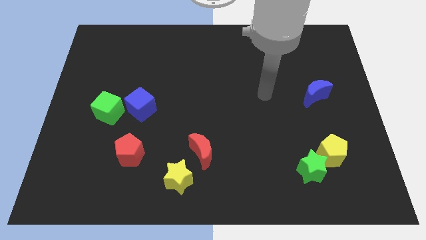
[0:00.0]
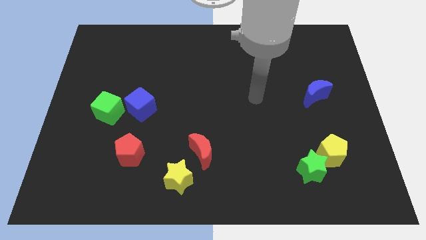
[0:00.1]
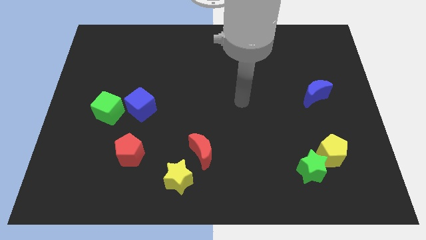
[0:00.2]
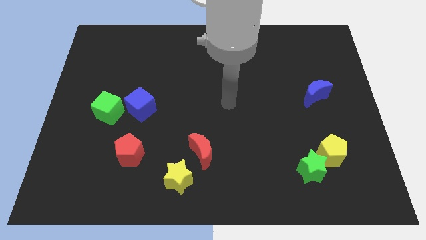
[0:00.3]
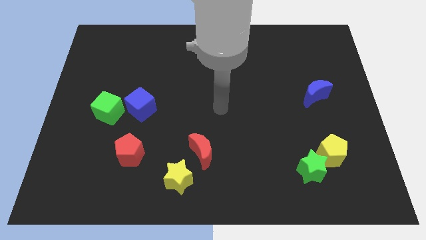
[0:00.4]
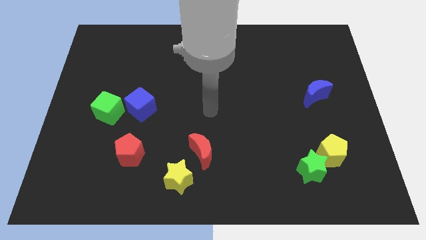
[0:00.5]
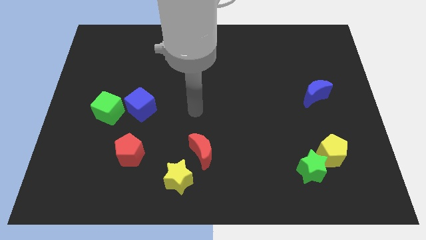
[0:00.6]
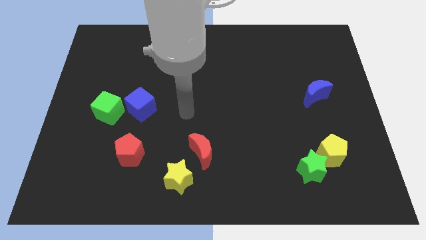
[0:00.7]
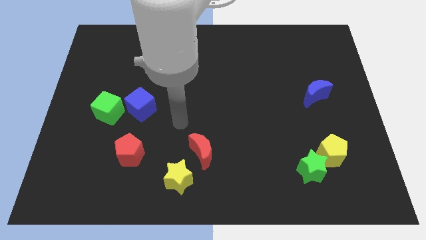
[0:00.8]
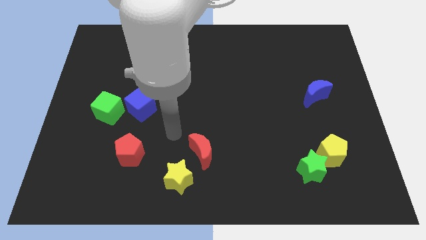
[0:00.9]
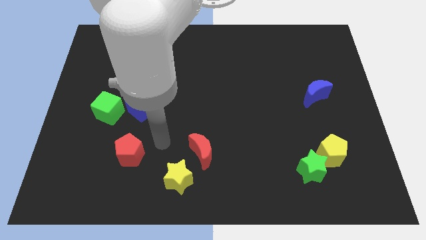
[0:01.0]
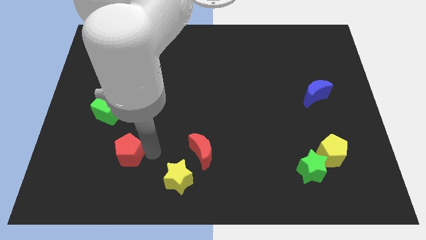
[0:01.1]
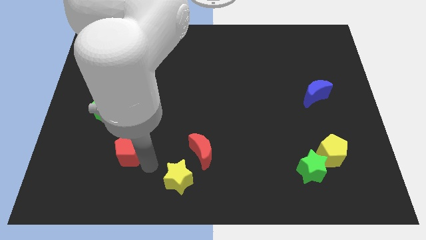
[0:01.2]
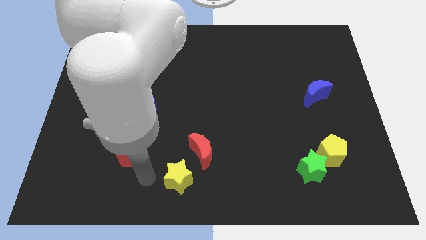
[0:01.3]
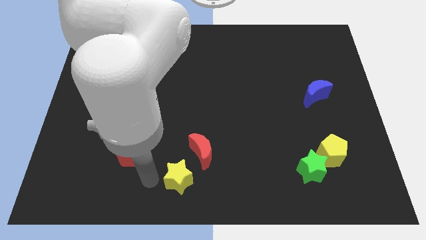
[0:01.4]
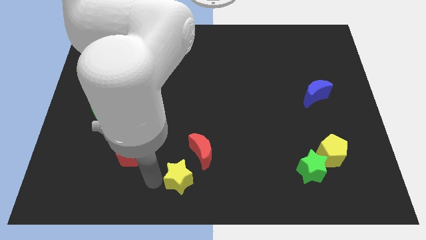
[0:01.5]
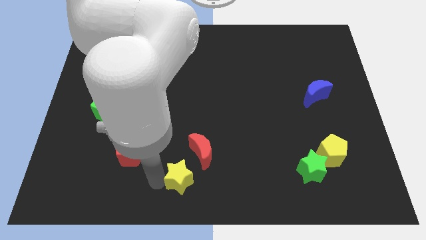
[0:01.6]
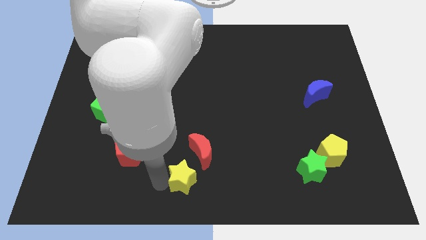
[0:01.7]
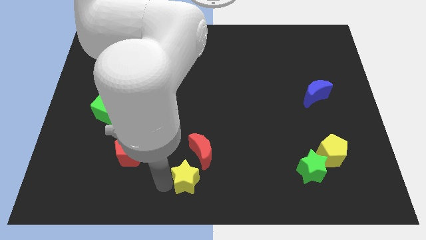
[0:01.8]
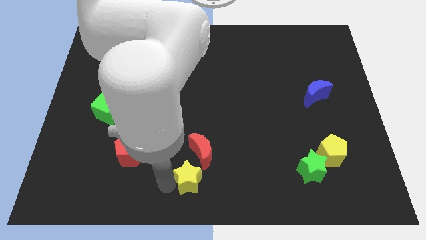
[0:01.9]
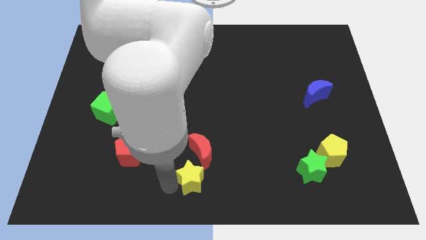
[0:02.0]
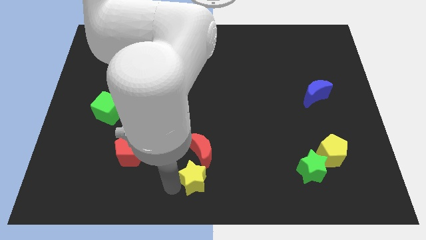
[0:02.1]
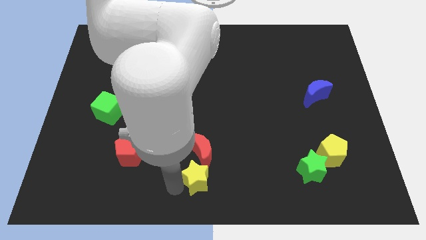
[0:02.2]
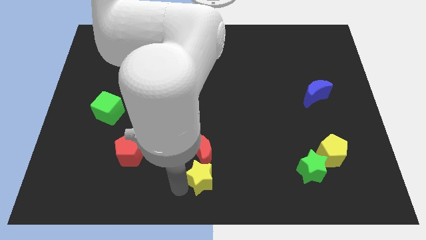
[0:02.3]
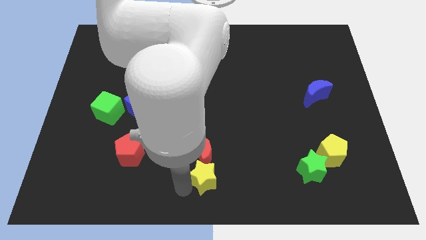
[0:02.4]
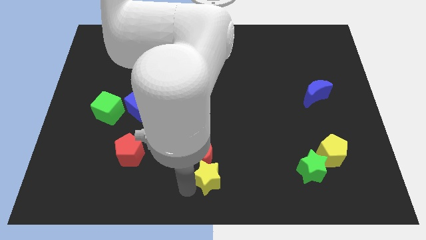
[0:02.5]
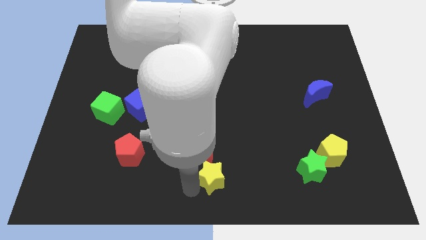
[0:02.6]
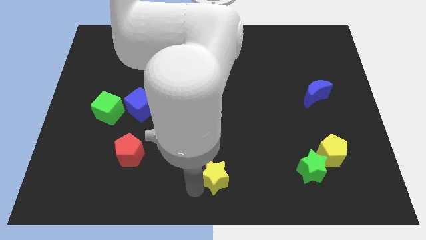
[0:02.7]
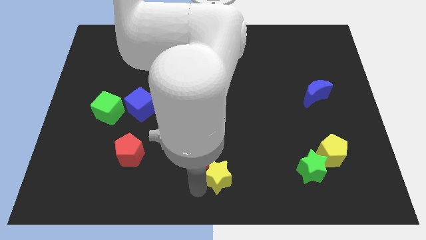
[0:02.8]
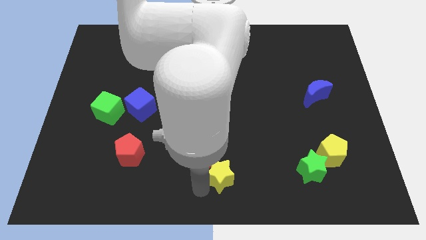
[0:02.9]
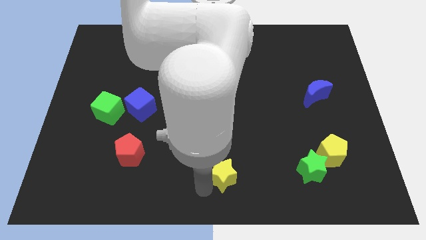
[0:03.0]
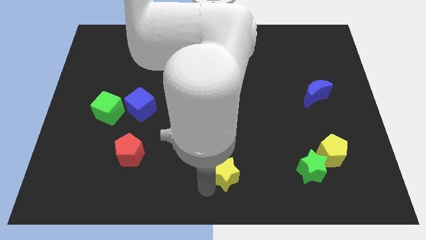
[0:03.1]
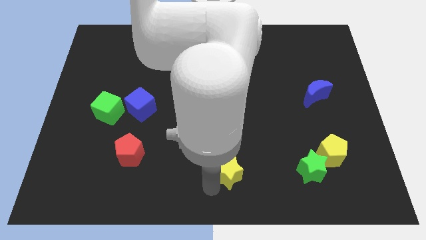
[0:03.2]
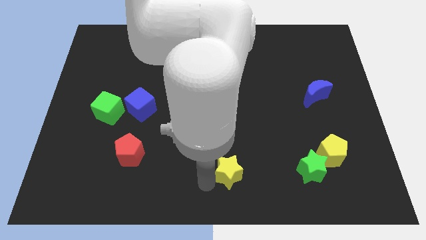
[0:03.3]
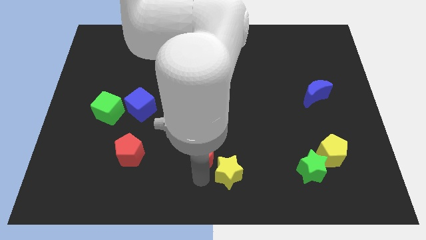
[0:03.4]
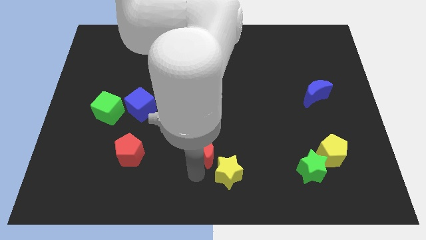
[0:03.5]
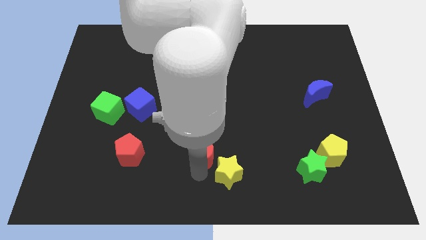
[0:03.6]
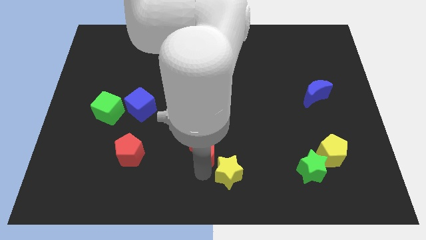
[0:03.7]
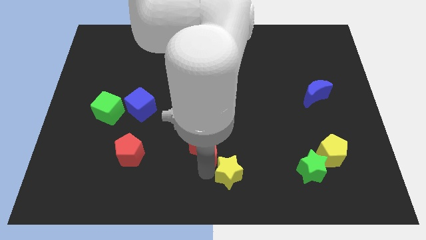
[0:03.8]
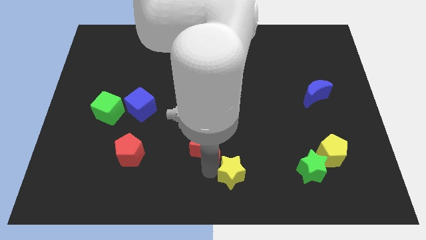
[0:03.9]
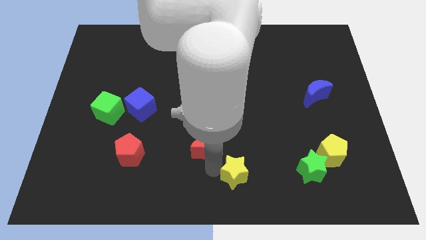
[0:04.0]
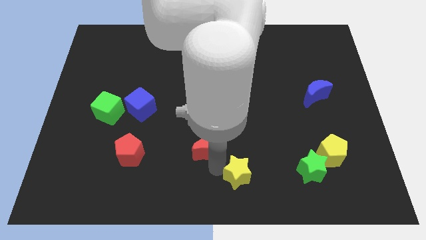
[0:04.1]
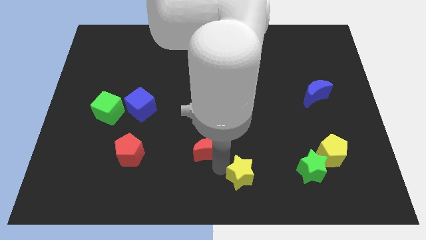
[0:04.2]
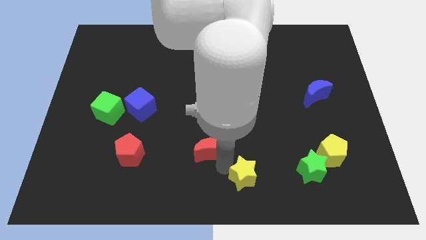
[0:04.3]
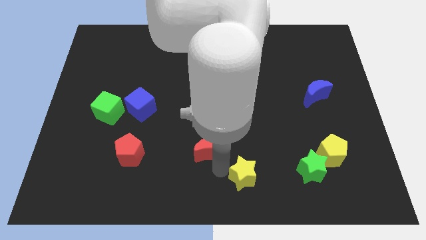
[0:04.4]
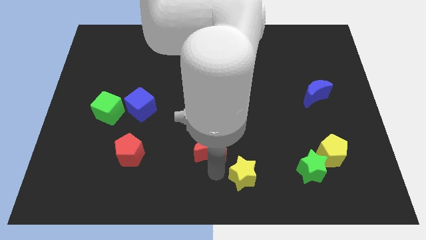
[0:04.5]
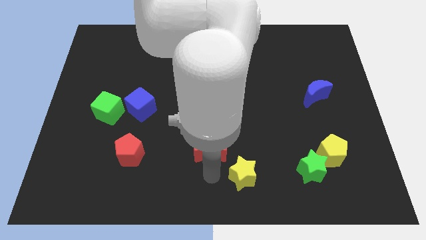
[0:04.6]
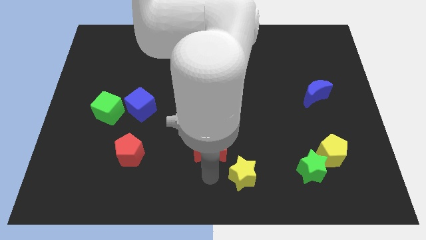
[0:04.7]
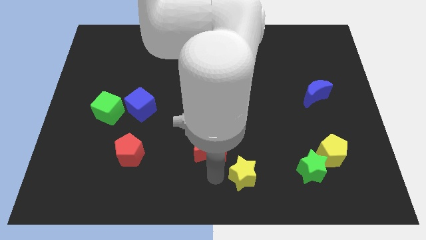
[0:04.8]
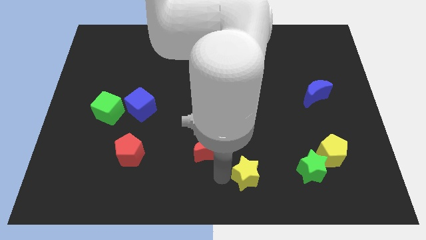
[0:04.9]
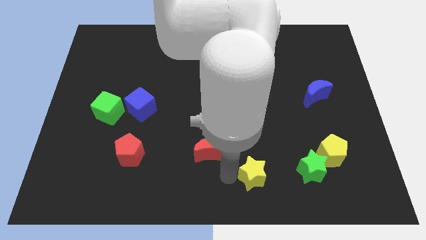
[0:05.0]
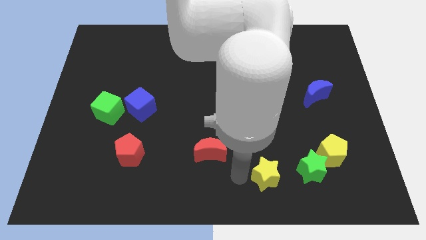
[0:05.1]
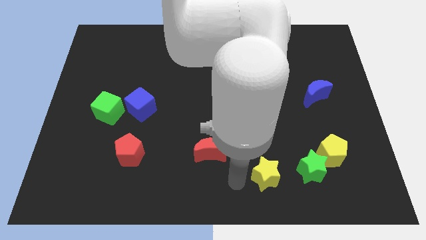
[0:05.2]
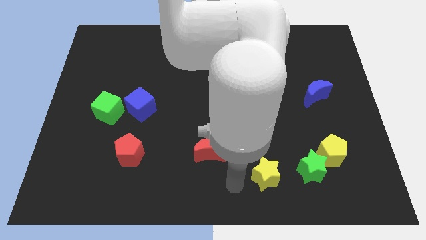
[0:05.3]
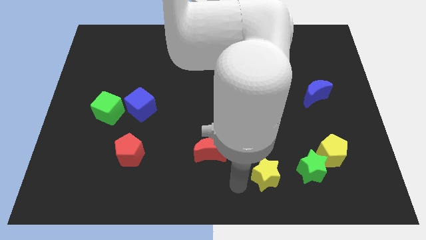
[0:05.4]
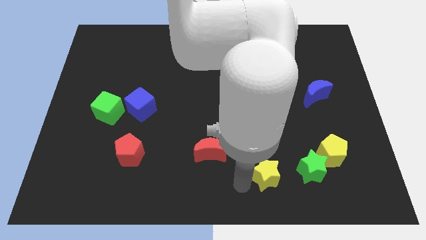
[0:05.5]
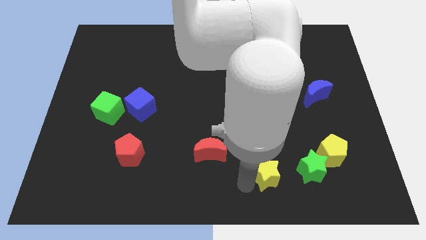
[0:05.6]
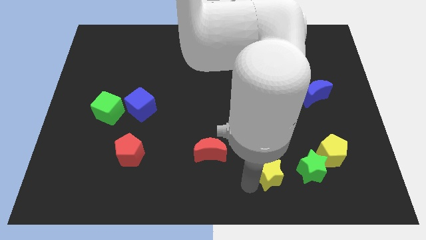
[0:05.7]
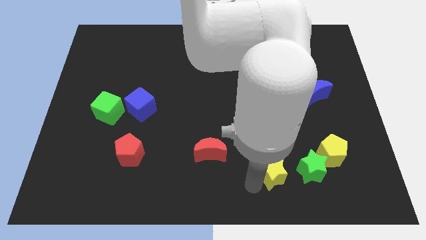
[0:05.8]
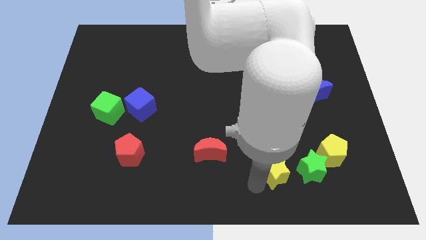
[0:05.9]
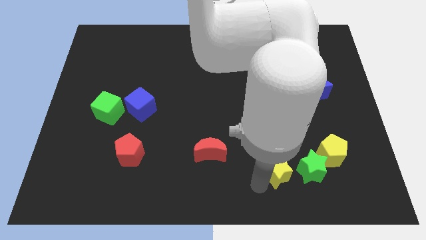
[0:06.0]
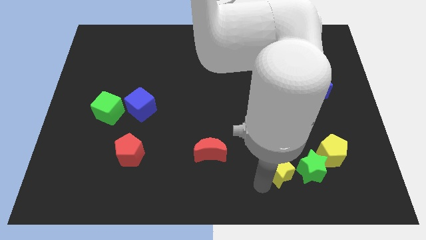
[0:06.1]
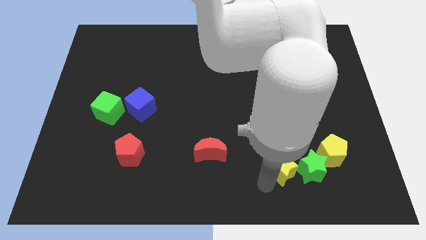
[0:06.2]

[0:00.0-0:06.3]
slide the yellow star towards the green star

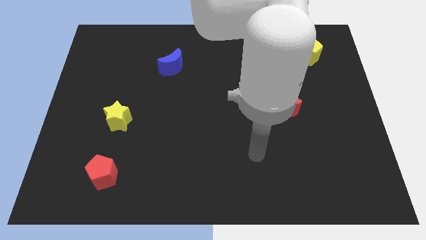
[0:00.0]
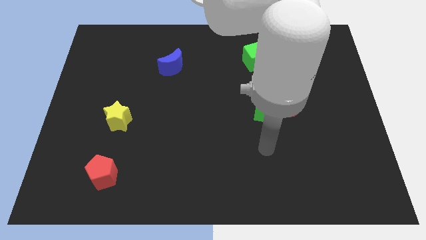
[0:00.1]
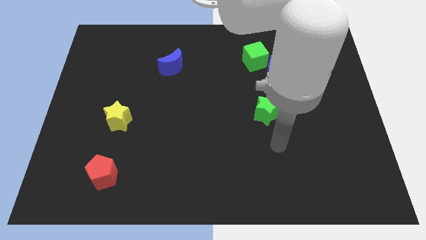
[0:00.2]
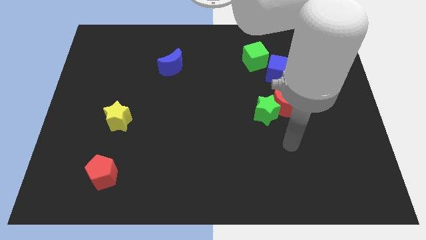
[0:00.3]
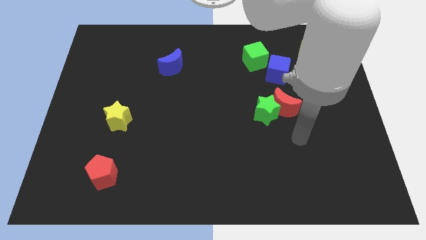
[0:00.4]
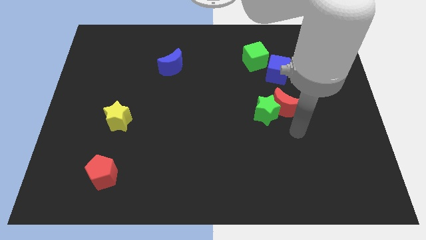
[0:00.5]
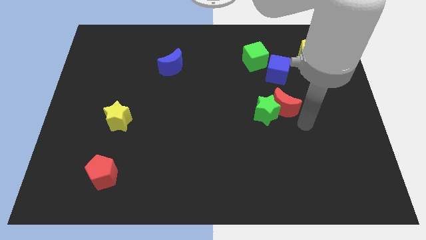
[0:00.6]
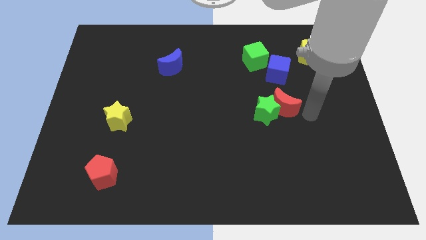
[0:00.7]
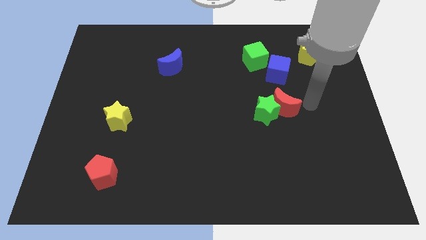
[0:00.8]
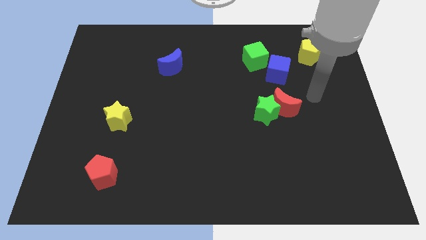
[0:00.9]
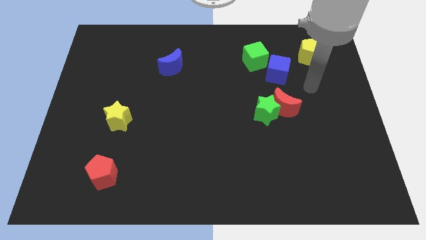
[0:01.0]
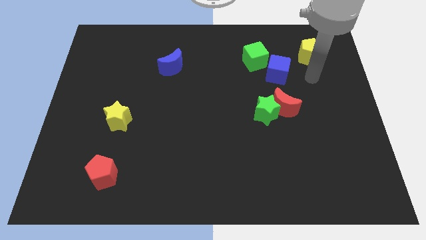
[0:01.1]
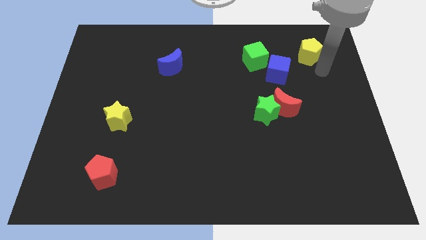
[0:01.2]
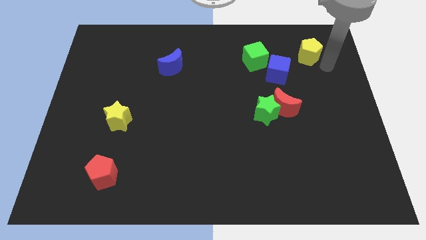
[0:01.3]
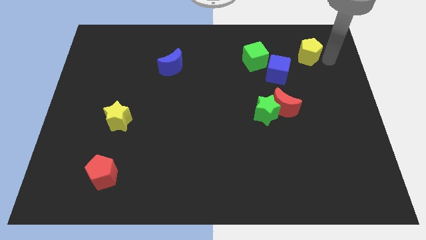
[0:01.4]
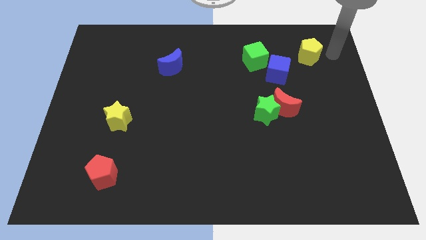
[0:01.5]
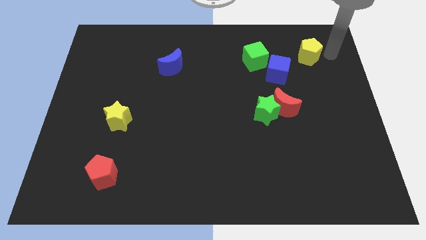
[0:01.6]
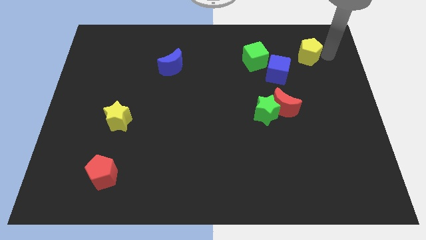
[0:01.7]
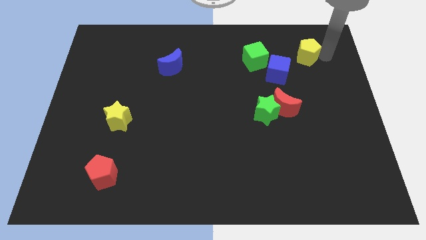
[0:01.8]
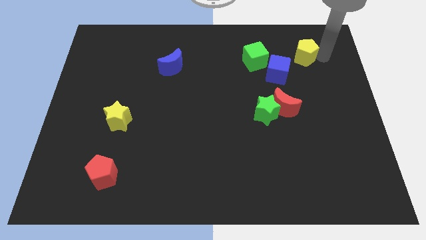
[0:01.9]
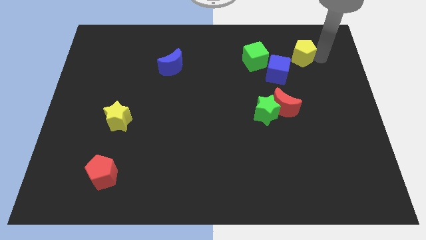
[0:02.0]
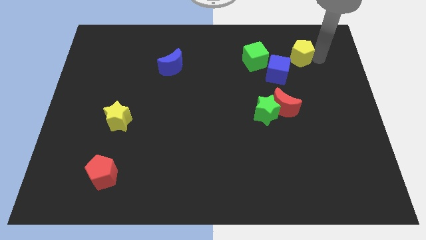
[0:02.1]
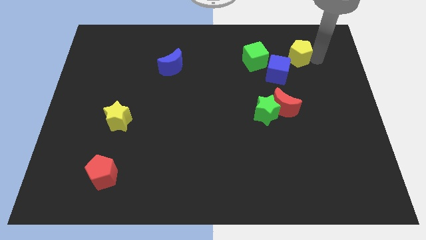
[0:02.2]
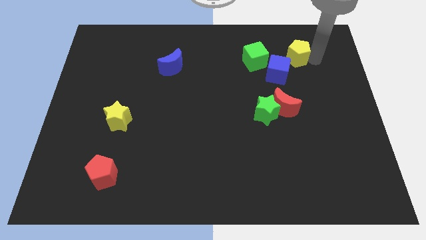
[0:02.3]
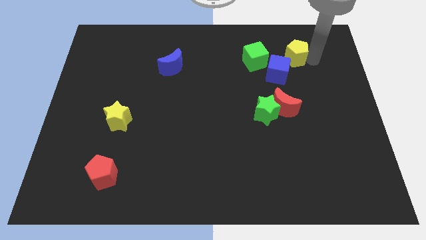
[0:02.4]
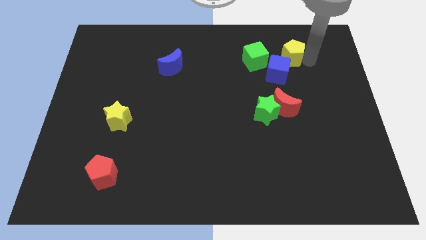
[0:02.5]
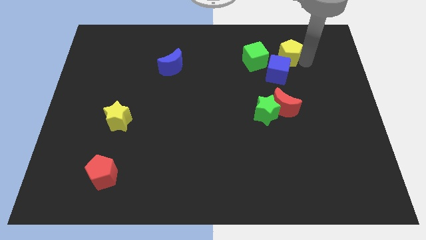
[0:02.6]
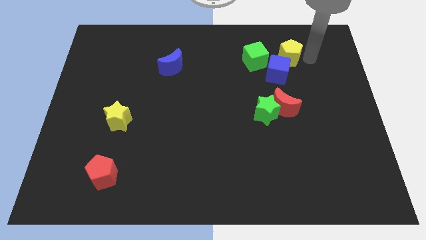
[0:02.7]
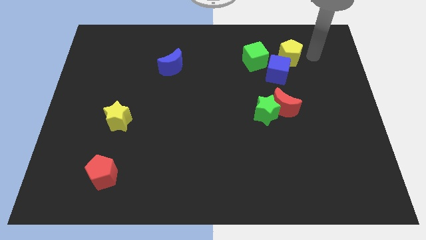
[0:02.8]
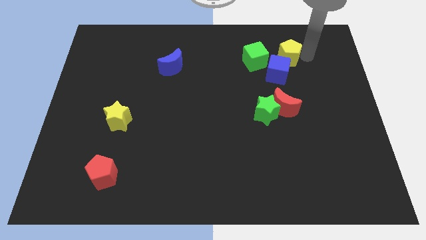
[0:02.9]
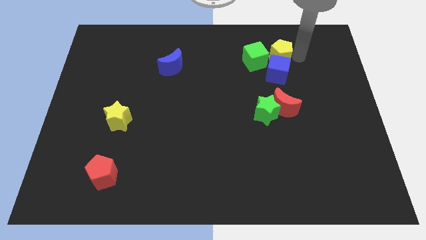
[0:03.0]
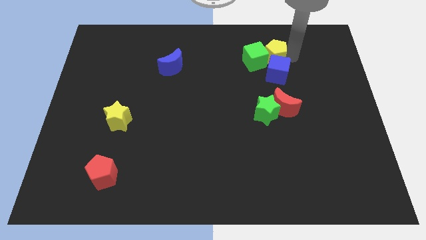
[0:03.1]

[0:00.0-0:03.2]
move the yellow pentagon to the green cube
